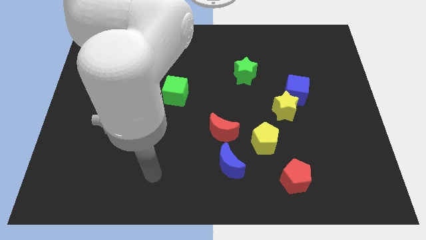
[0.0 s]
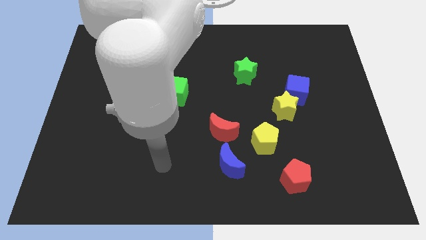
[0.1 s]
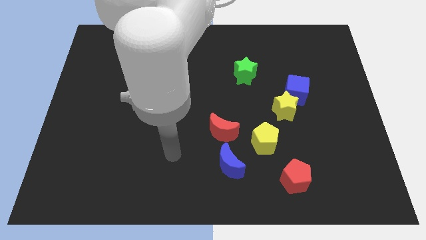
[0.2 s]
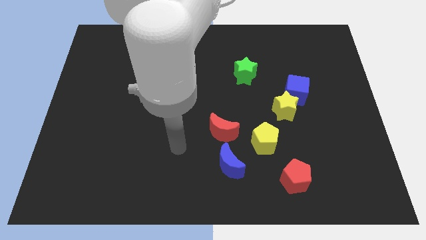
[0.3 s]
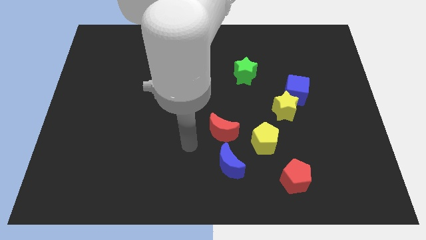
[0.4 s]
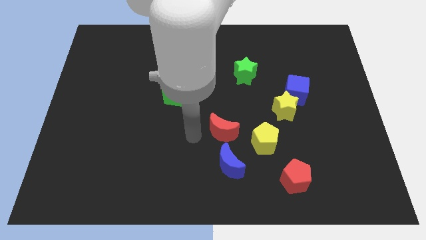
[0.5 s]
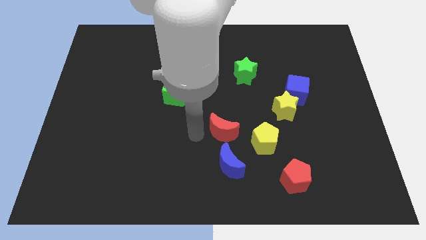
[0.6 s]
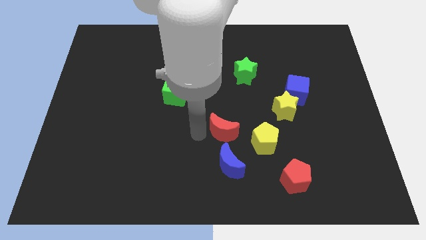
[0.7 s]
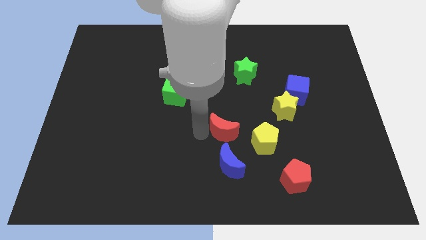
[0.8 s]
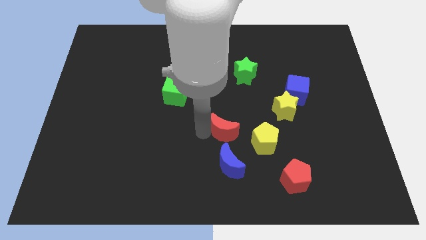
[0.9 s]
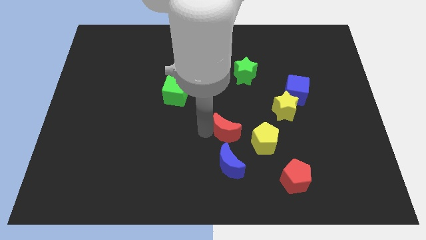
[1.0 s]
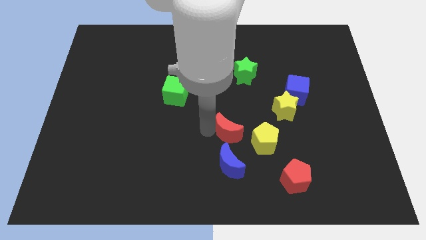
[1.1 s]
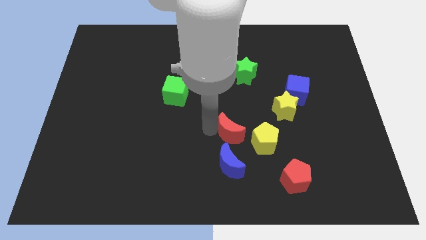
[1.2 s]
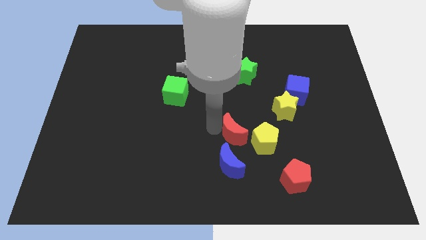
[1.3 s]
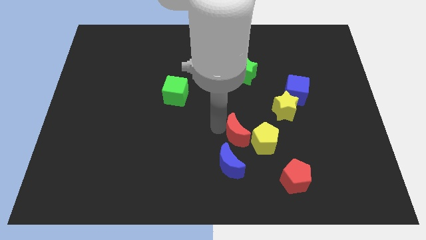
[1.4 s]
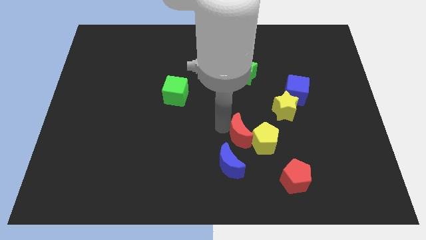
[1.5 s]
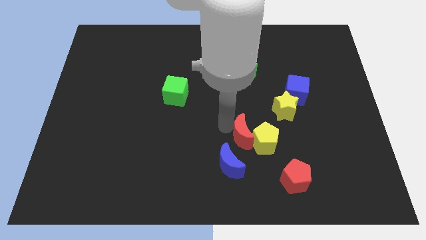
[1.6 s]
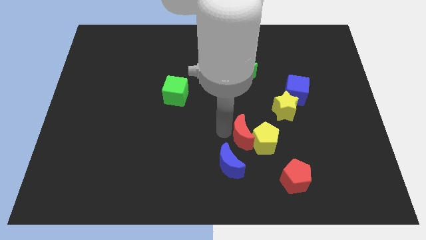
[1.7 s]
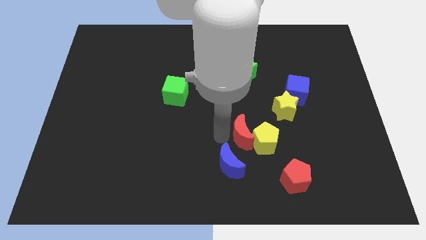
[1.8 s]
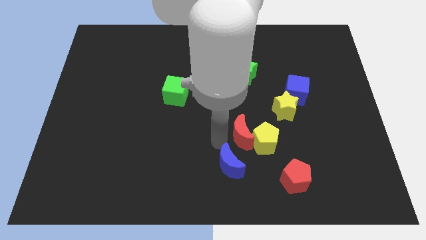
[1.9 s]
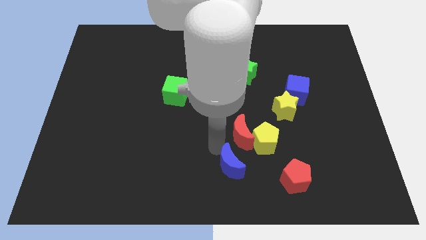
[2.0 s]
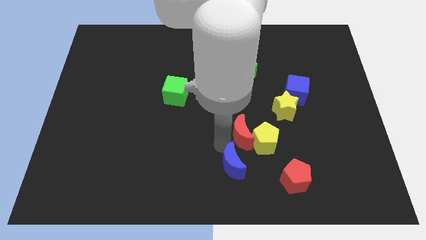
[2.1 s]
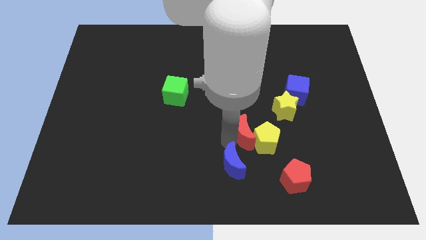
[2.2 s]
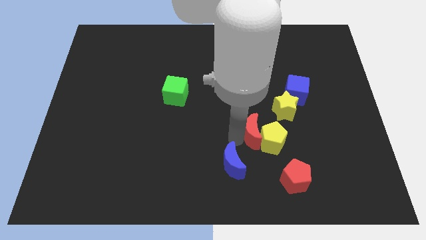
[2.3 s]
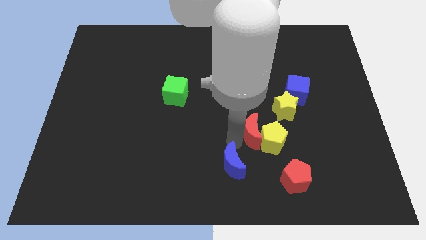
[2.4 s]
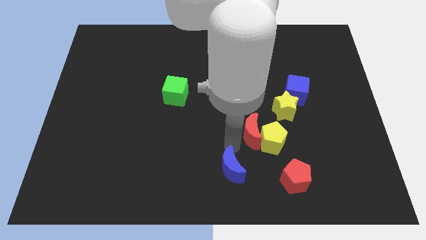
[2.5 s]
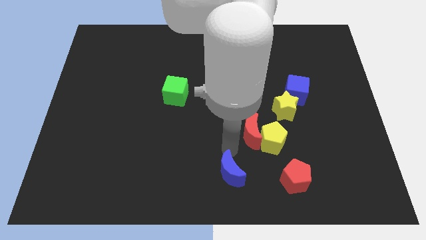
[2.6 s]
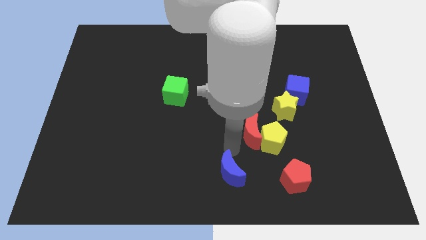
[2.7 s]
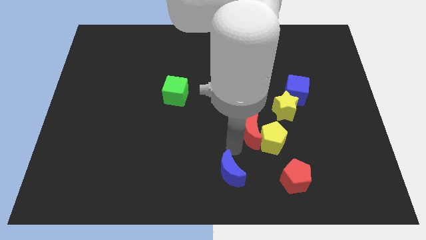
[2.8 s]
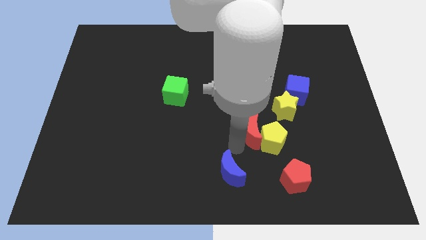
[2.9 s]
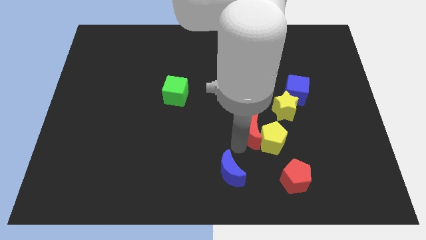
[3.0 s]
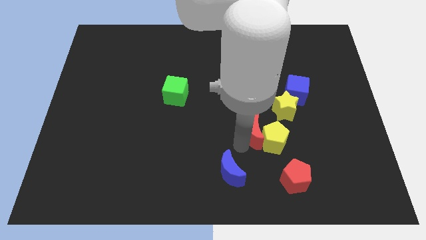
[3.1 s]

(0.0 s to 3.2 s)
push the red moon a little right

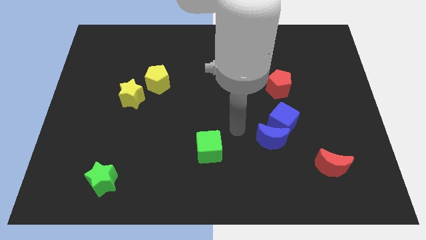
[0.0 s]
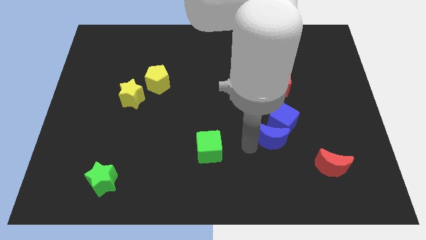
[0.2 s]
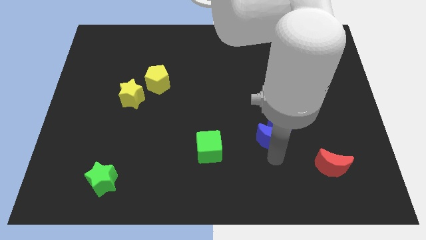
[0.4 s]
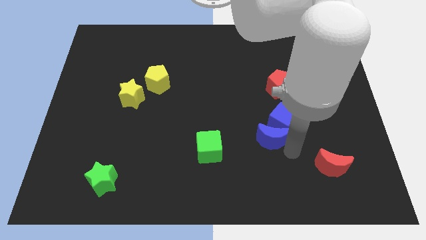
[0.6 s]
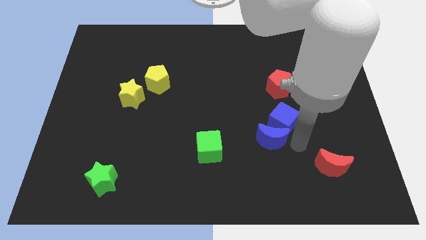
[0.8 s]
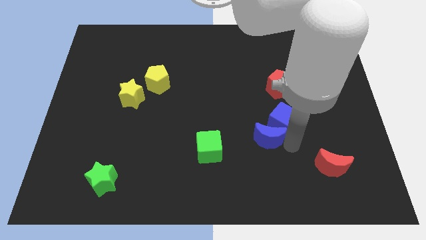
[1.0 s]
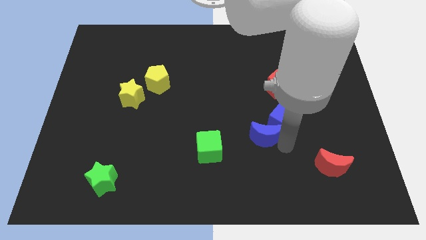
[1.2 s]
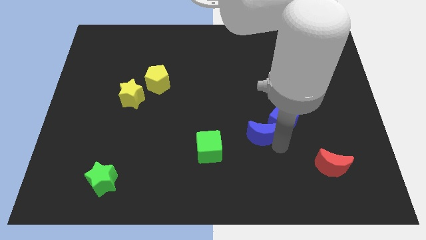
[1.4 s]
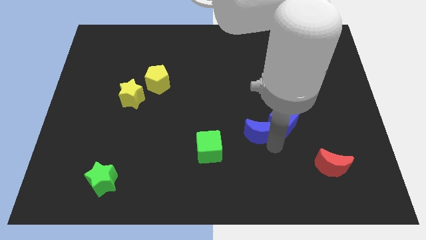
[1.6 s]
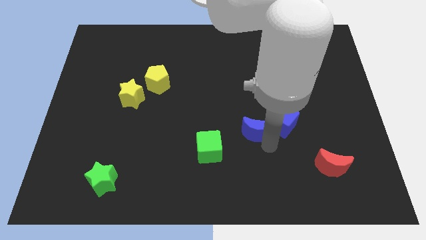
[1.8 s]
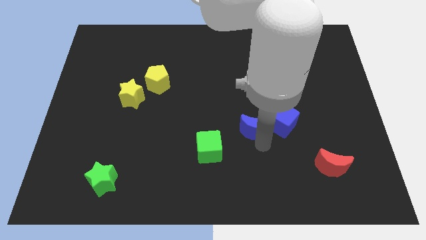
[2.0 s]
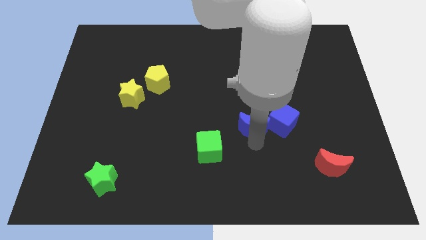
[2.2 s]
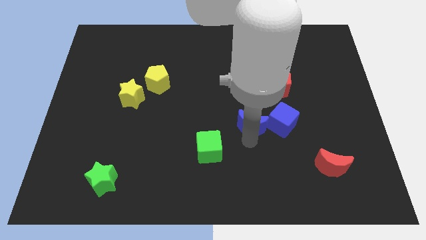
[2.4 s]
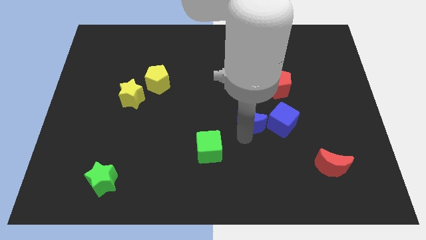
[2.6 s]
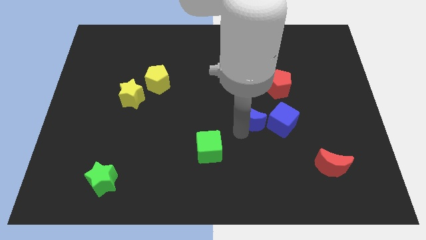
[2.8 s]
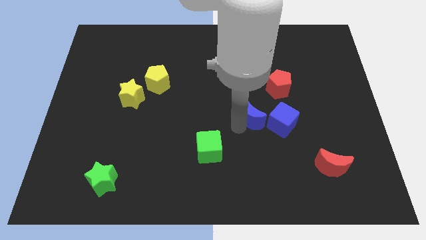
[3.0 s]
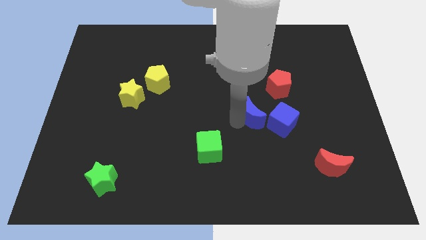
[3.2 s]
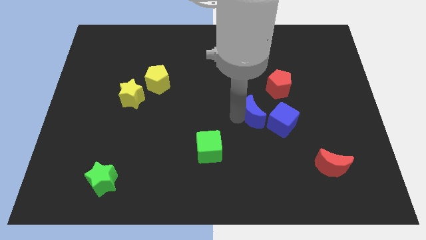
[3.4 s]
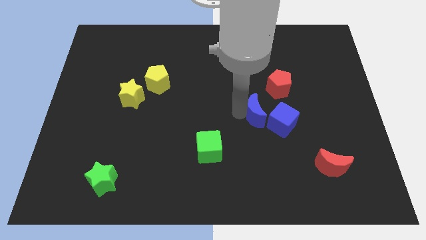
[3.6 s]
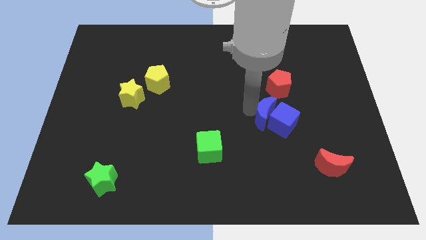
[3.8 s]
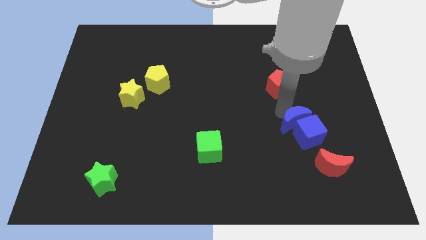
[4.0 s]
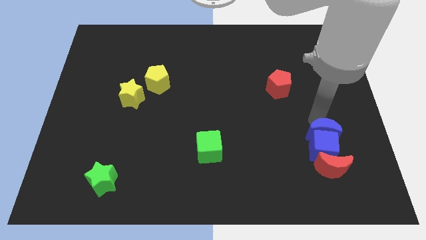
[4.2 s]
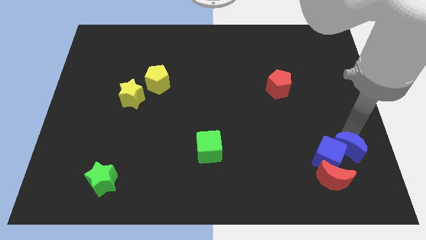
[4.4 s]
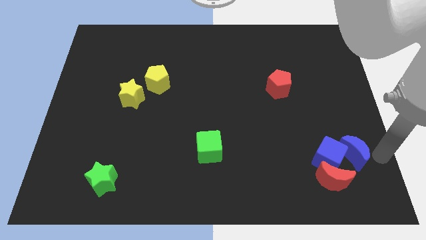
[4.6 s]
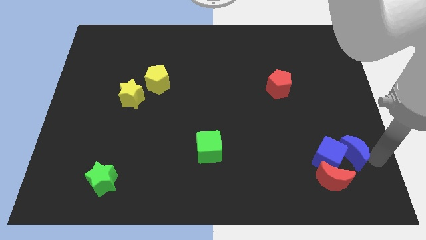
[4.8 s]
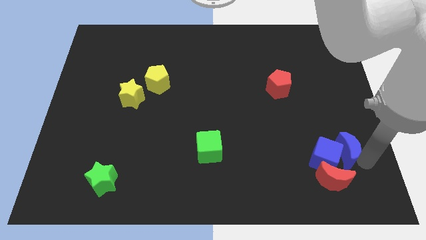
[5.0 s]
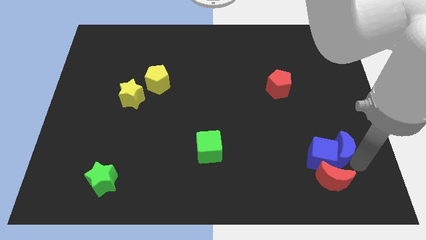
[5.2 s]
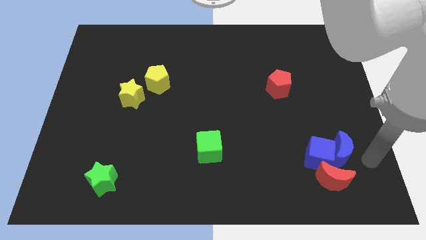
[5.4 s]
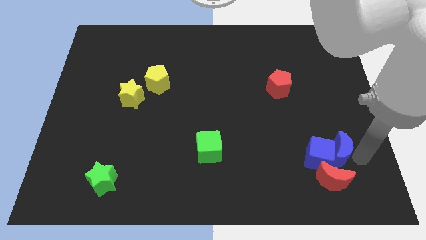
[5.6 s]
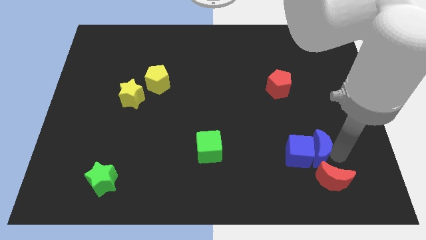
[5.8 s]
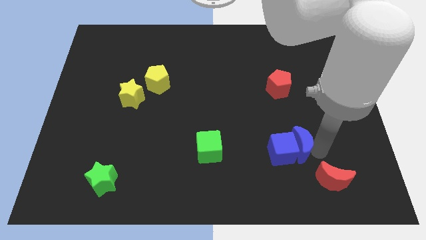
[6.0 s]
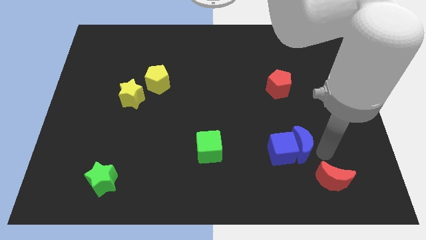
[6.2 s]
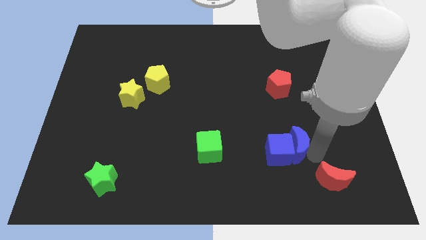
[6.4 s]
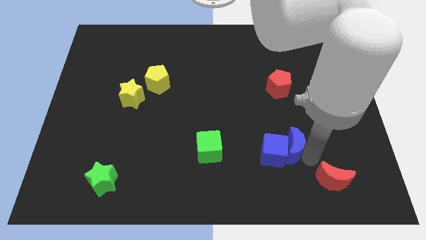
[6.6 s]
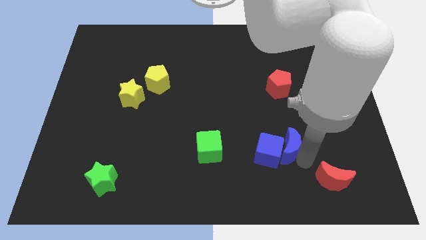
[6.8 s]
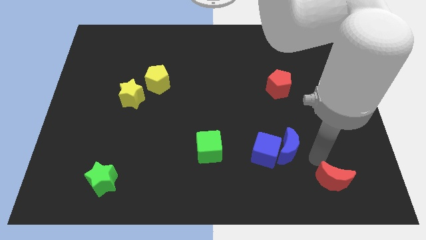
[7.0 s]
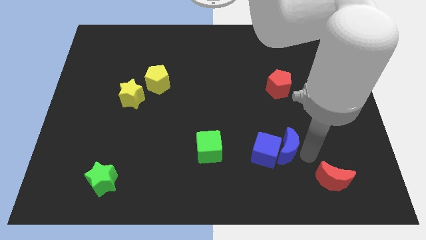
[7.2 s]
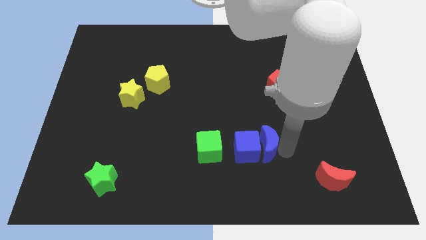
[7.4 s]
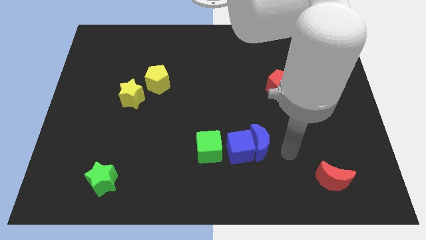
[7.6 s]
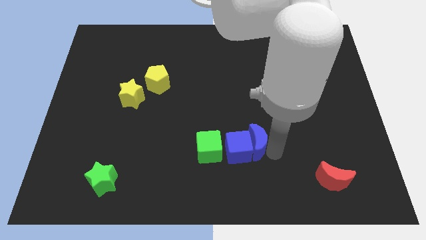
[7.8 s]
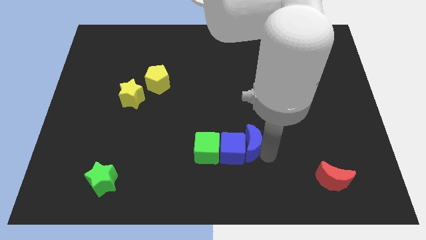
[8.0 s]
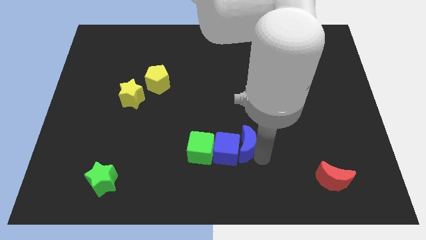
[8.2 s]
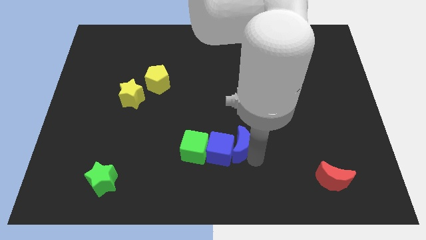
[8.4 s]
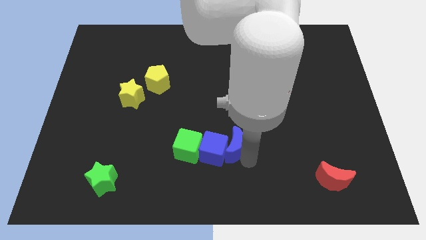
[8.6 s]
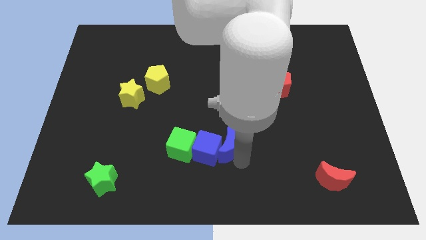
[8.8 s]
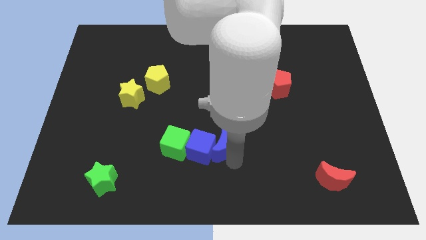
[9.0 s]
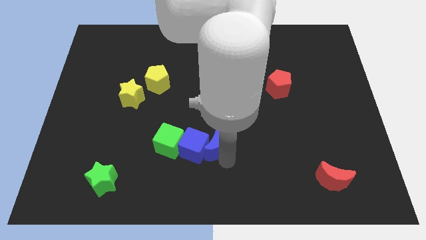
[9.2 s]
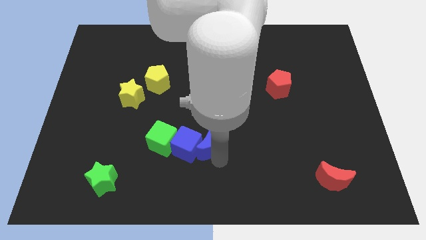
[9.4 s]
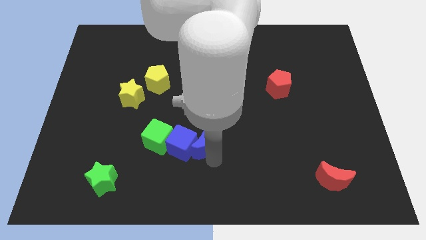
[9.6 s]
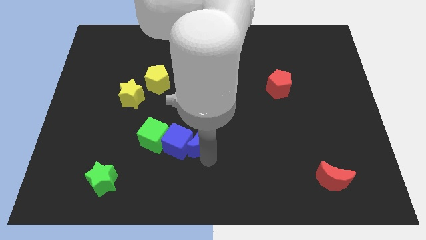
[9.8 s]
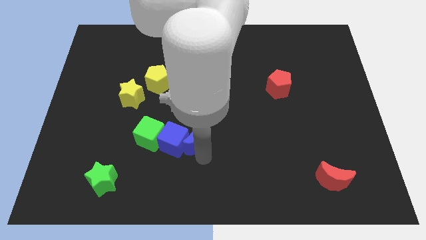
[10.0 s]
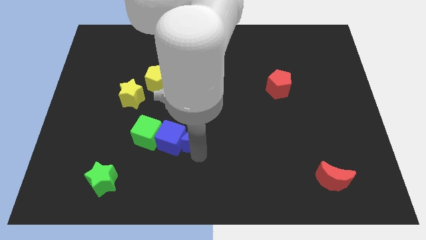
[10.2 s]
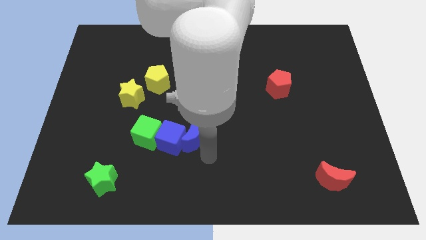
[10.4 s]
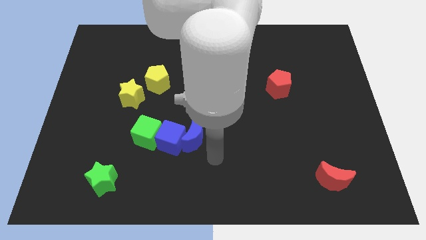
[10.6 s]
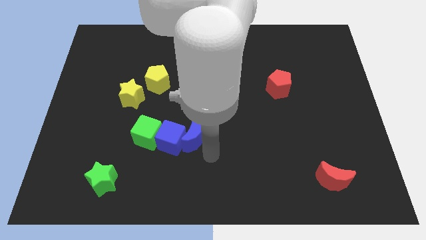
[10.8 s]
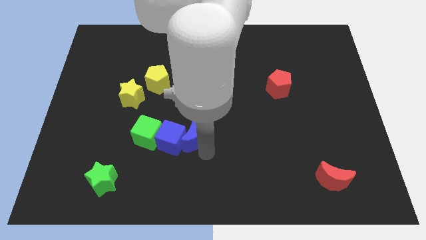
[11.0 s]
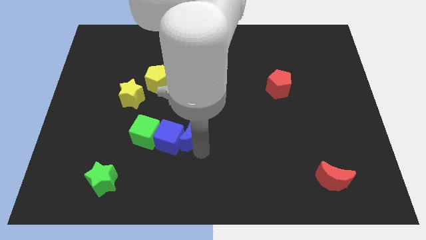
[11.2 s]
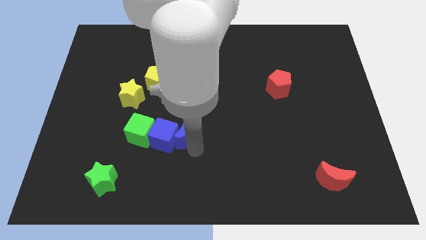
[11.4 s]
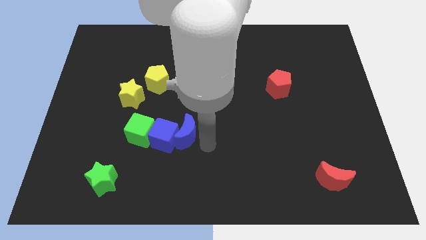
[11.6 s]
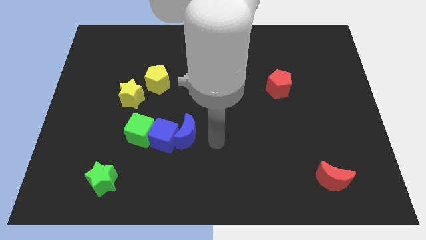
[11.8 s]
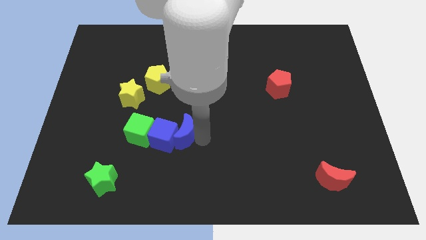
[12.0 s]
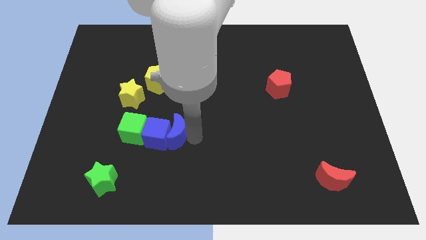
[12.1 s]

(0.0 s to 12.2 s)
push the blue moon to the left
